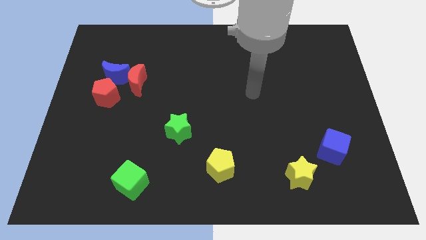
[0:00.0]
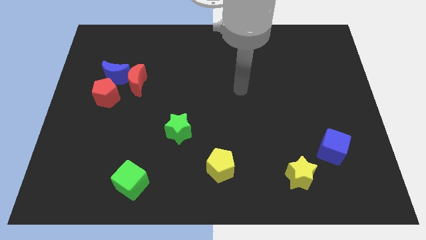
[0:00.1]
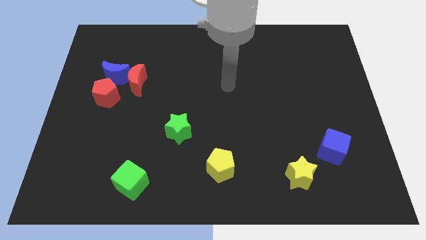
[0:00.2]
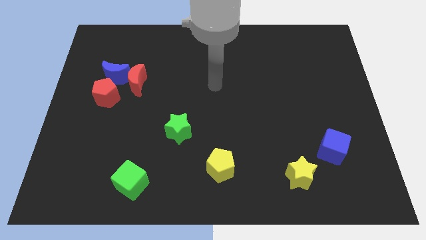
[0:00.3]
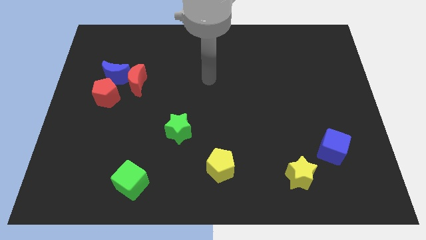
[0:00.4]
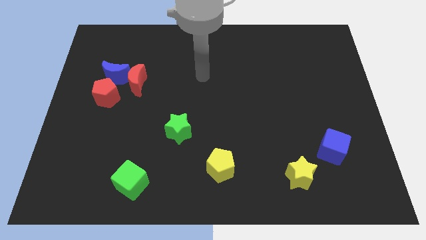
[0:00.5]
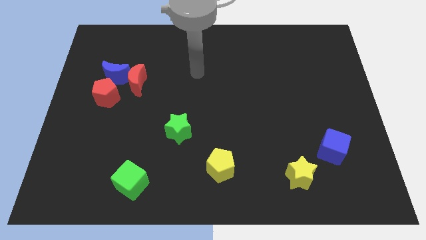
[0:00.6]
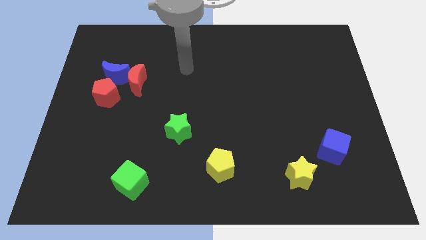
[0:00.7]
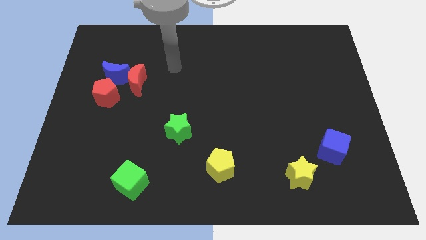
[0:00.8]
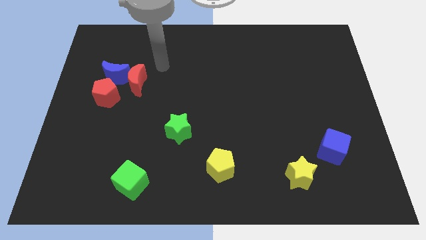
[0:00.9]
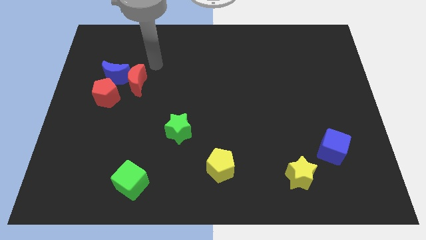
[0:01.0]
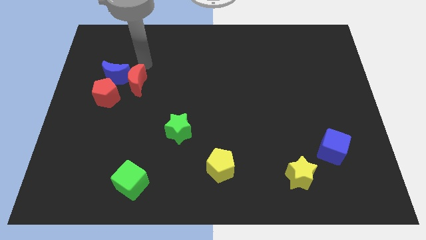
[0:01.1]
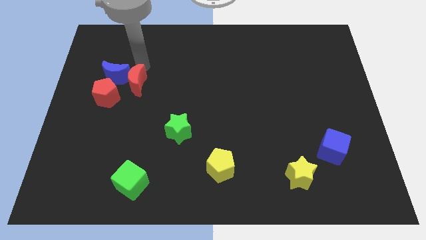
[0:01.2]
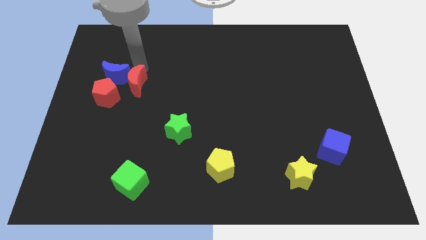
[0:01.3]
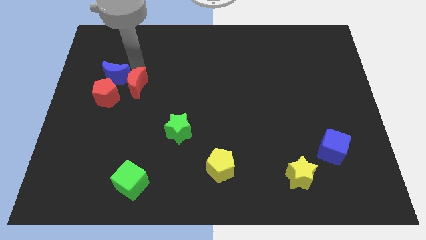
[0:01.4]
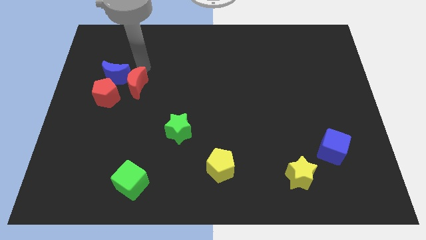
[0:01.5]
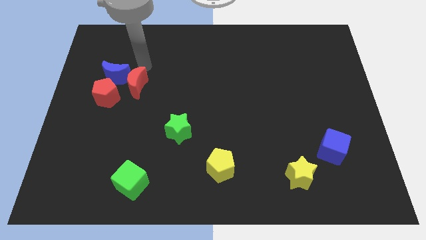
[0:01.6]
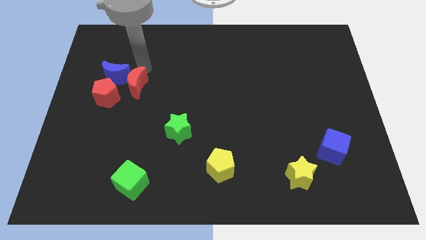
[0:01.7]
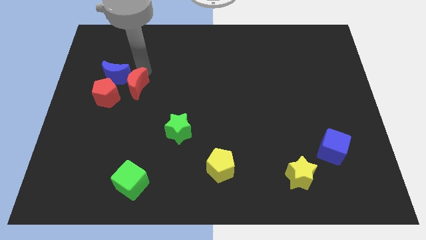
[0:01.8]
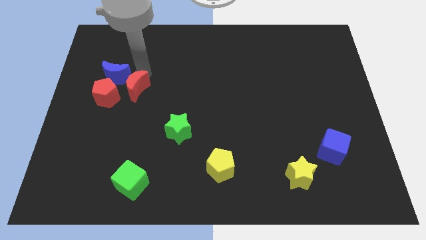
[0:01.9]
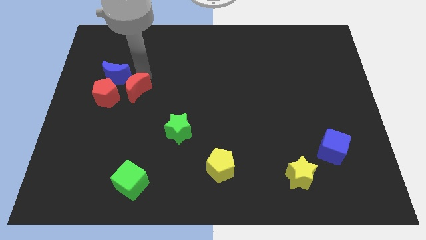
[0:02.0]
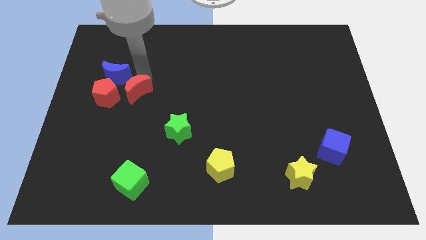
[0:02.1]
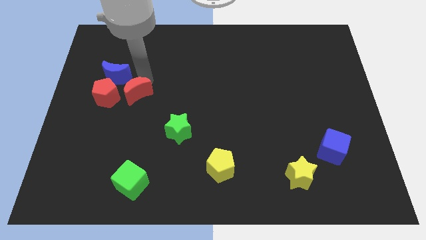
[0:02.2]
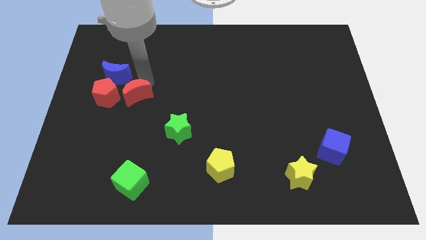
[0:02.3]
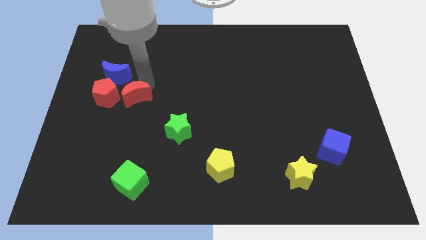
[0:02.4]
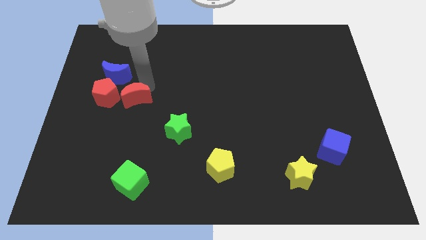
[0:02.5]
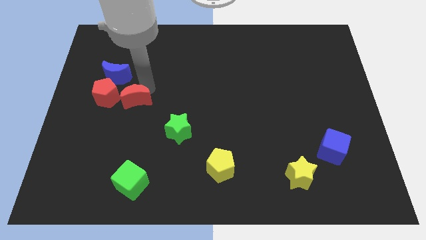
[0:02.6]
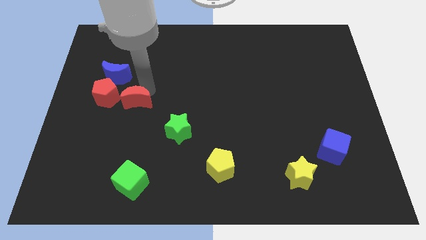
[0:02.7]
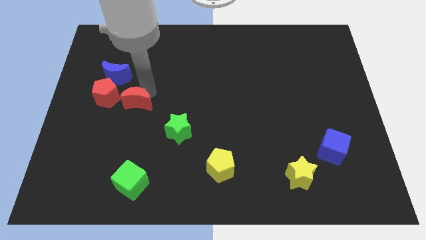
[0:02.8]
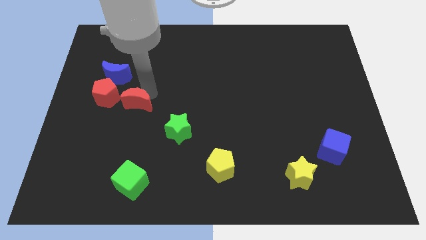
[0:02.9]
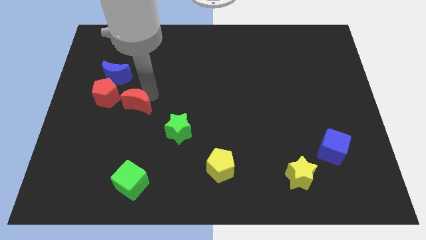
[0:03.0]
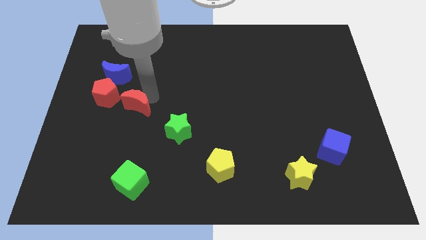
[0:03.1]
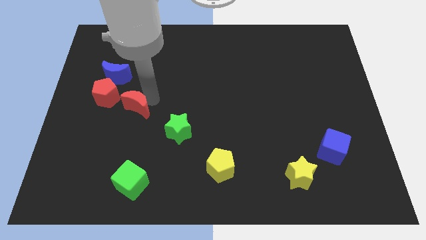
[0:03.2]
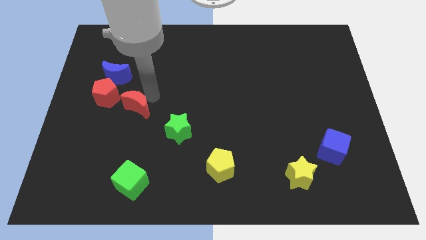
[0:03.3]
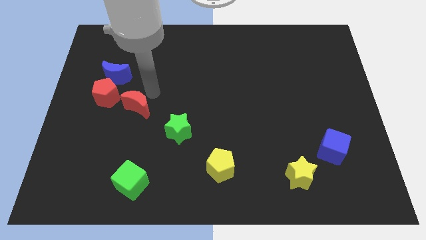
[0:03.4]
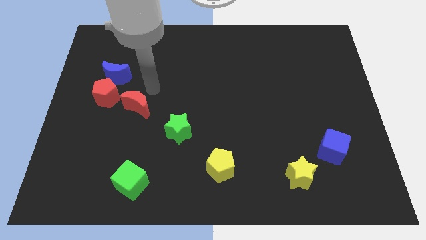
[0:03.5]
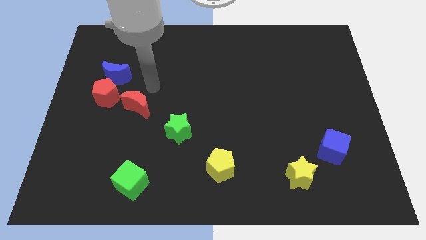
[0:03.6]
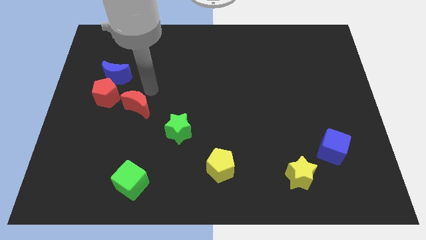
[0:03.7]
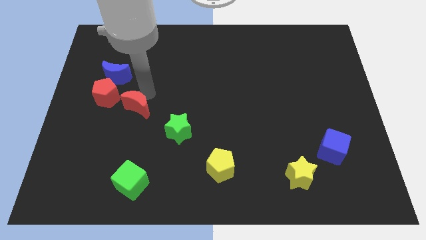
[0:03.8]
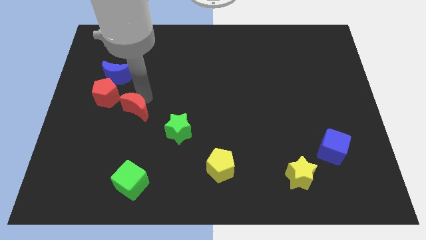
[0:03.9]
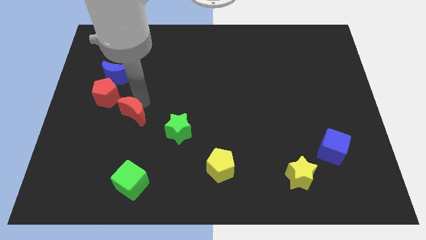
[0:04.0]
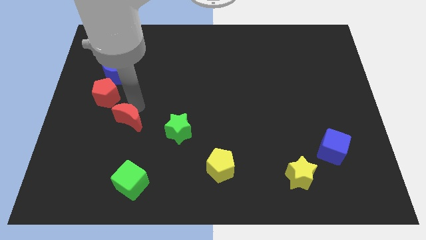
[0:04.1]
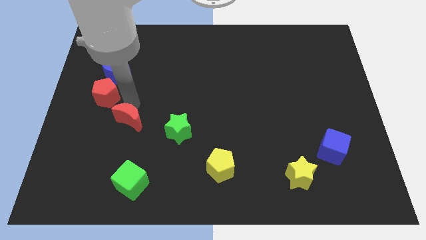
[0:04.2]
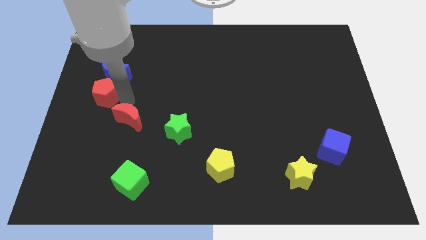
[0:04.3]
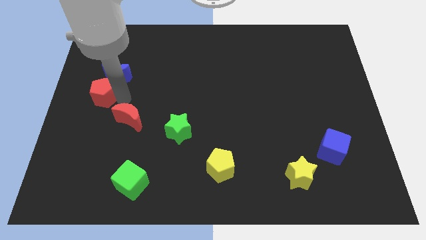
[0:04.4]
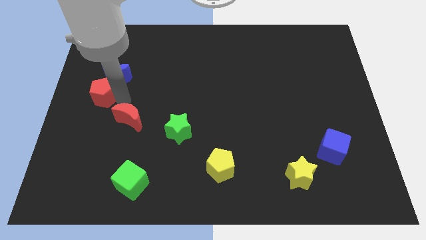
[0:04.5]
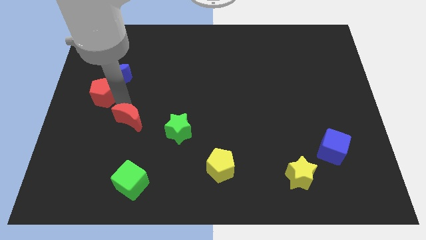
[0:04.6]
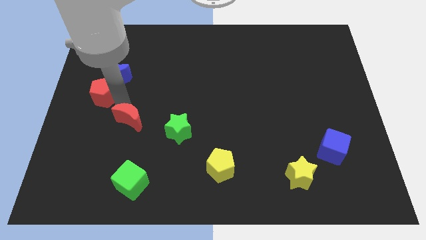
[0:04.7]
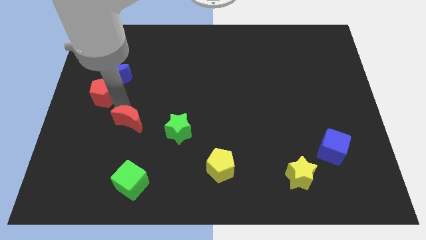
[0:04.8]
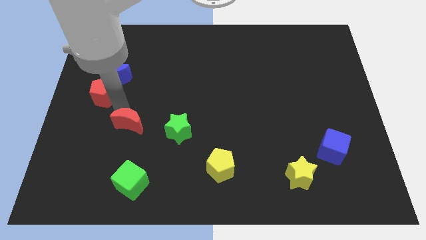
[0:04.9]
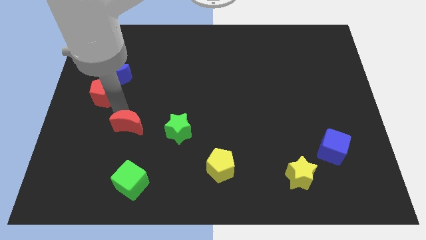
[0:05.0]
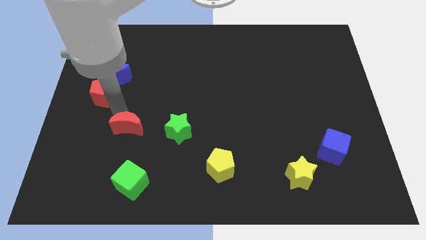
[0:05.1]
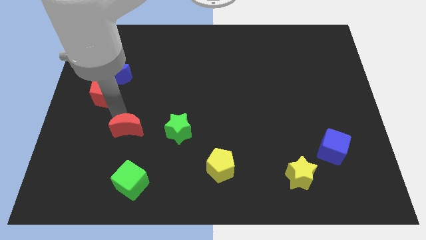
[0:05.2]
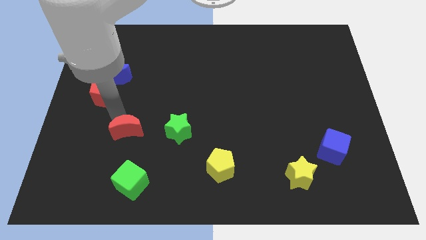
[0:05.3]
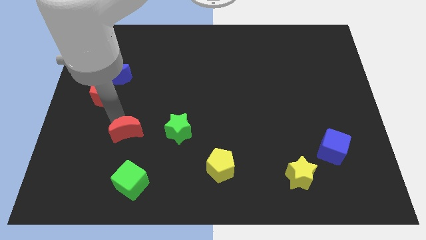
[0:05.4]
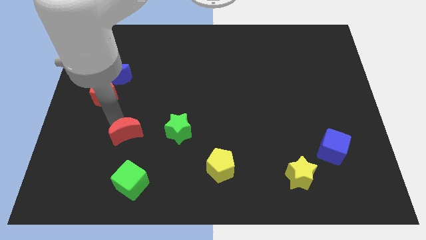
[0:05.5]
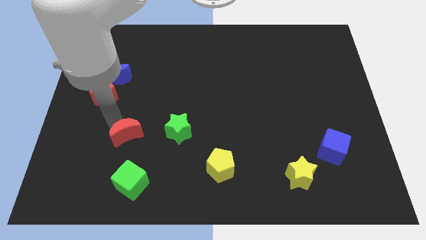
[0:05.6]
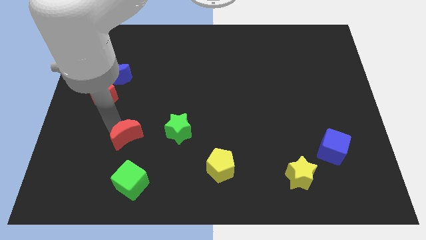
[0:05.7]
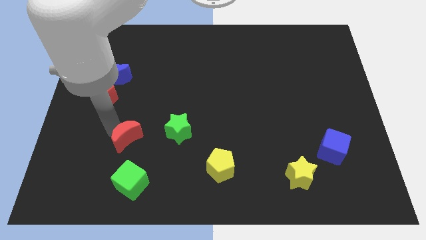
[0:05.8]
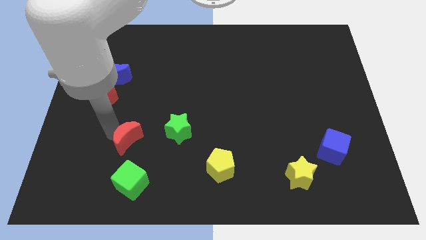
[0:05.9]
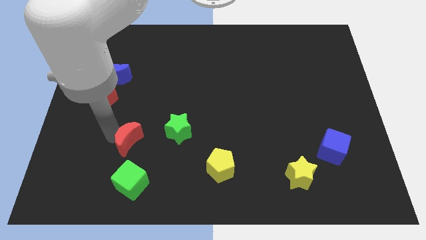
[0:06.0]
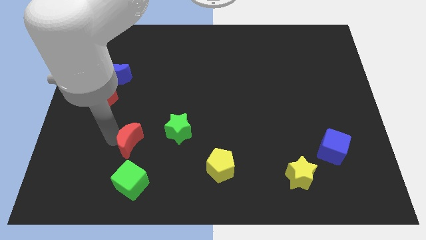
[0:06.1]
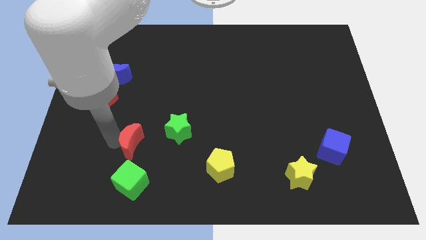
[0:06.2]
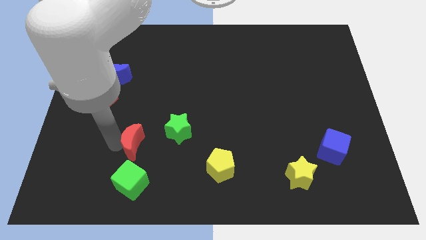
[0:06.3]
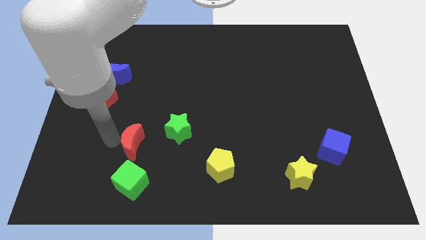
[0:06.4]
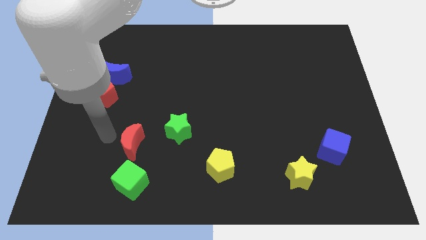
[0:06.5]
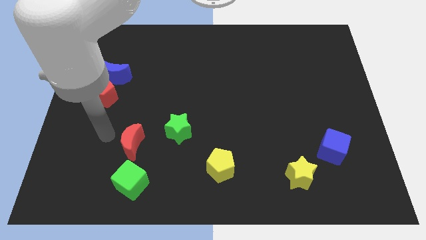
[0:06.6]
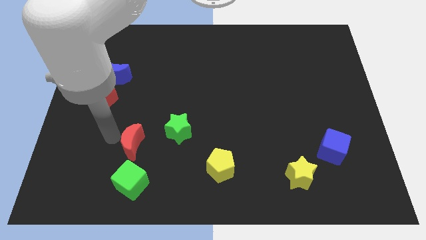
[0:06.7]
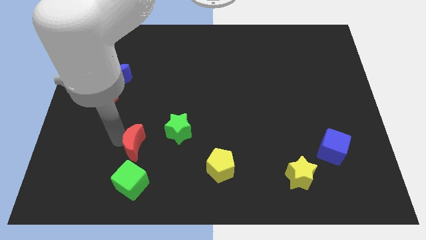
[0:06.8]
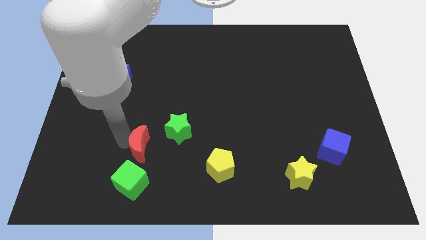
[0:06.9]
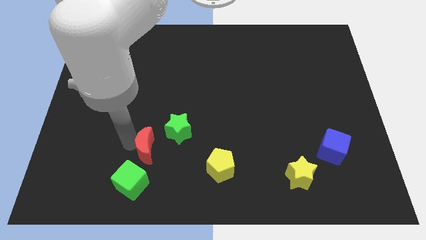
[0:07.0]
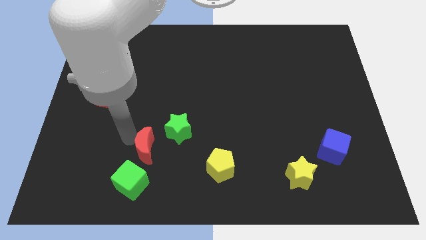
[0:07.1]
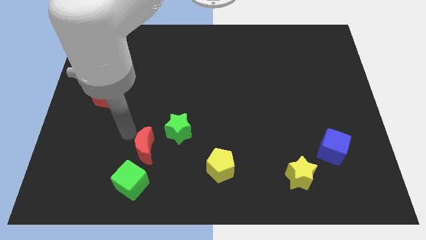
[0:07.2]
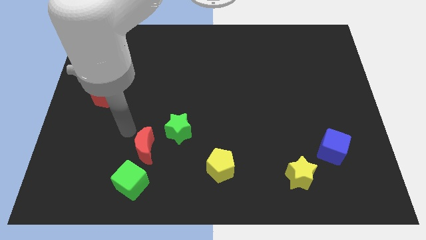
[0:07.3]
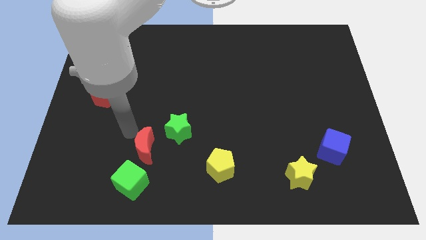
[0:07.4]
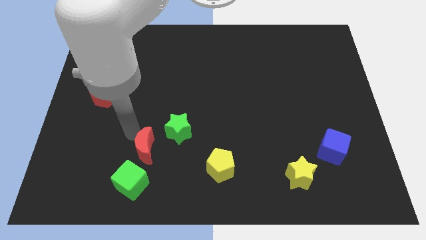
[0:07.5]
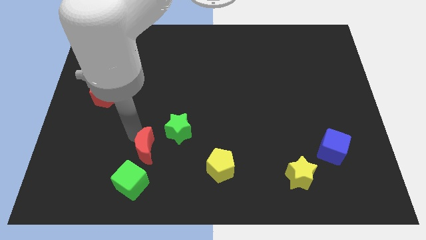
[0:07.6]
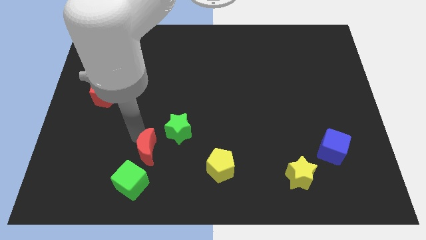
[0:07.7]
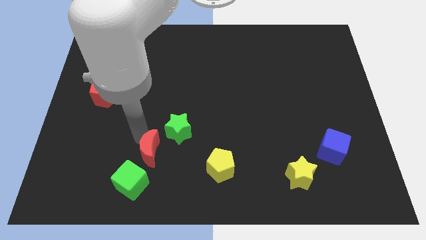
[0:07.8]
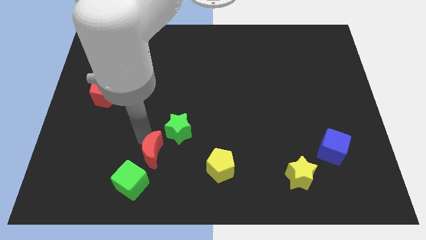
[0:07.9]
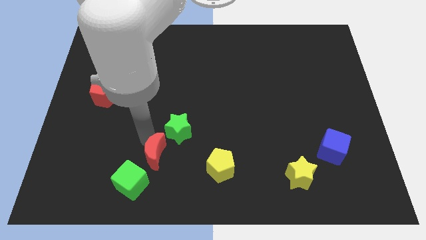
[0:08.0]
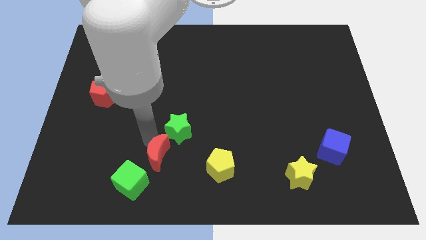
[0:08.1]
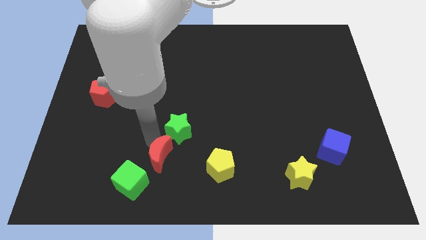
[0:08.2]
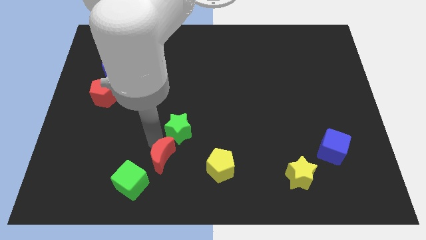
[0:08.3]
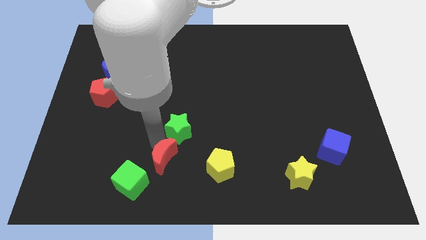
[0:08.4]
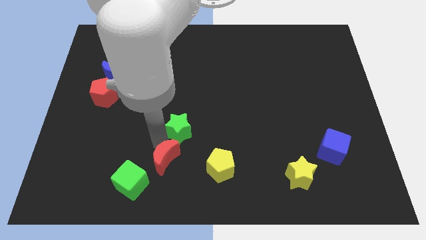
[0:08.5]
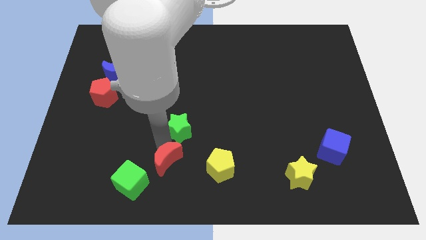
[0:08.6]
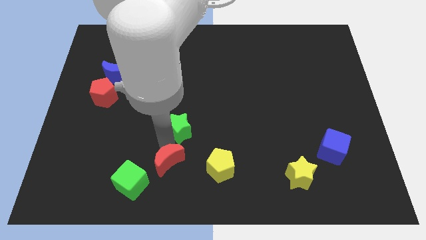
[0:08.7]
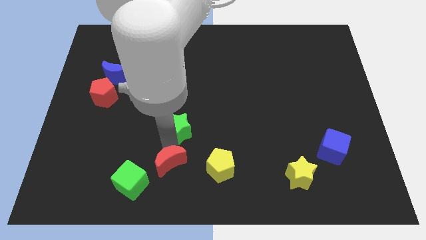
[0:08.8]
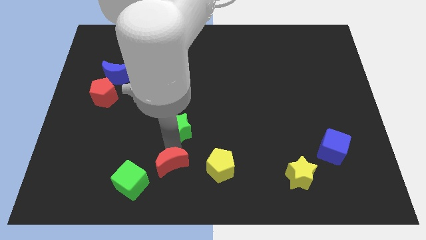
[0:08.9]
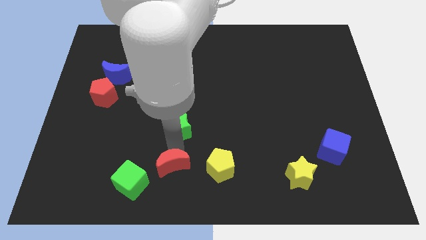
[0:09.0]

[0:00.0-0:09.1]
put the red moon to the bottom side
